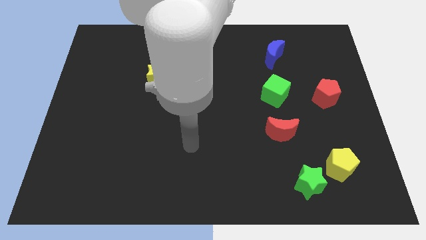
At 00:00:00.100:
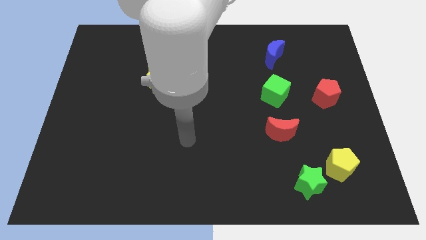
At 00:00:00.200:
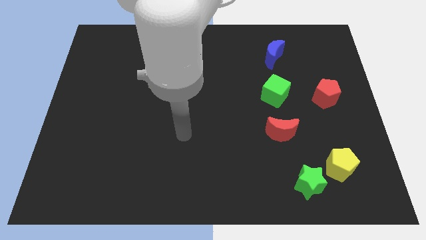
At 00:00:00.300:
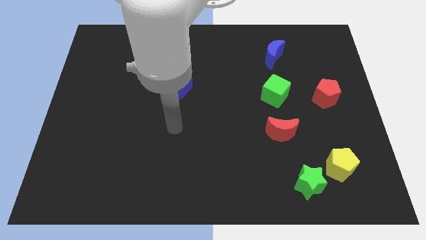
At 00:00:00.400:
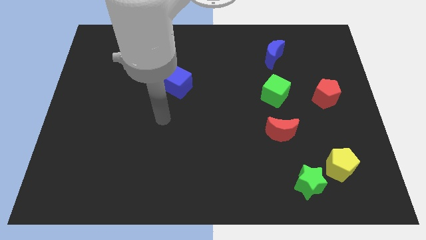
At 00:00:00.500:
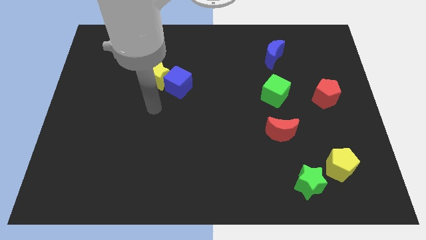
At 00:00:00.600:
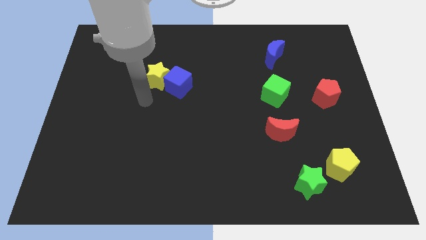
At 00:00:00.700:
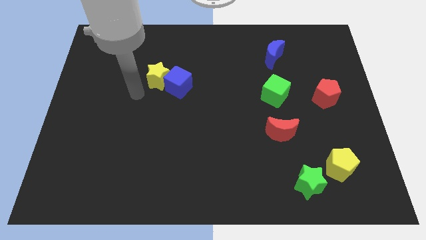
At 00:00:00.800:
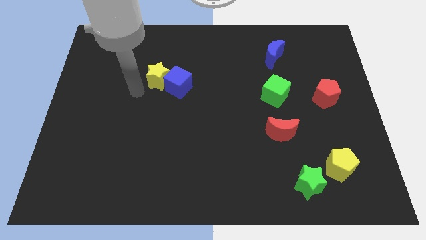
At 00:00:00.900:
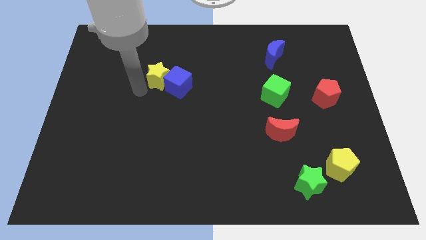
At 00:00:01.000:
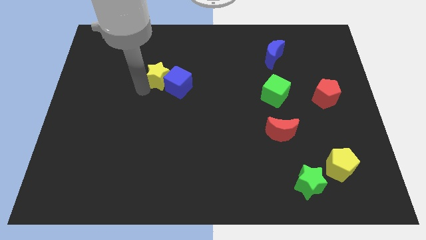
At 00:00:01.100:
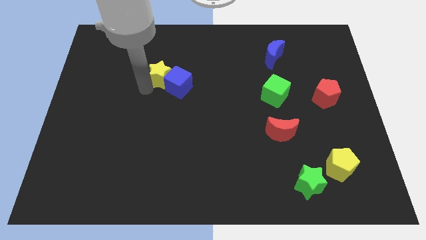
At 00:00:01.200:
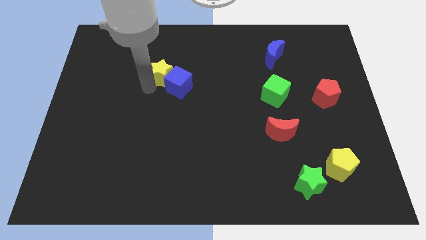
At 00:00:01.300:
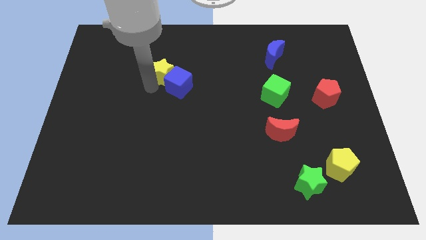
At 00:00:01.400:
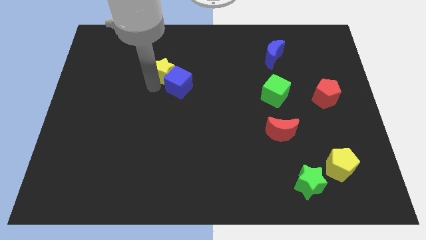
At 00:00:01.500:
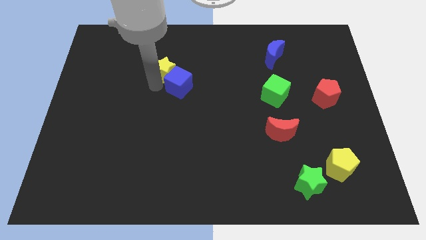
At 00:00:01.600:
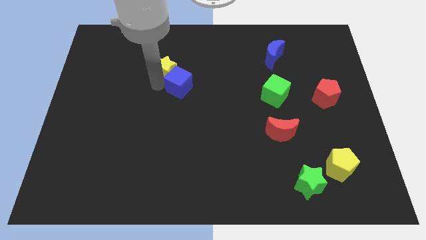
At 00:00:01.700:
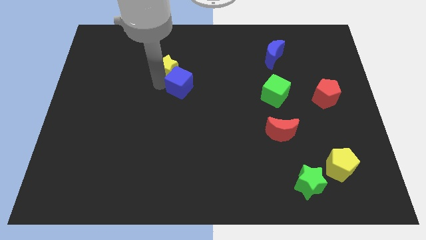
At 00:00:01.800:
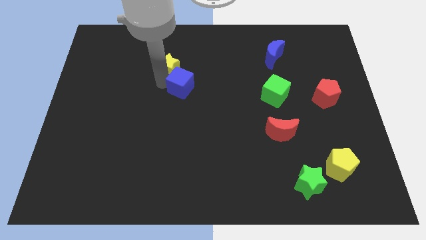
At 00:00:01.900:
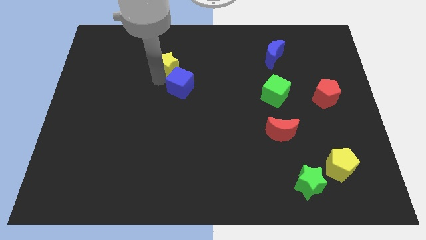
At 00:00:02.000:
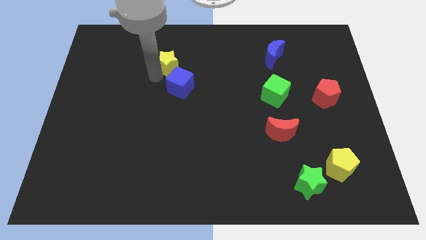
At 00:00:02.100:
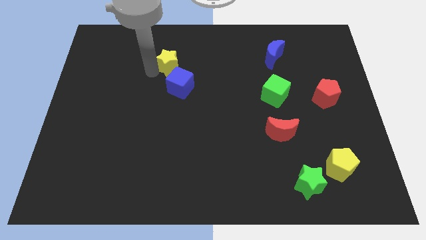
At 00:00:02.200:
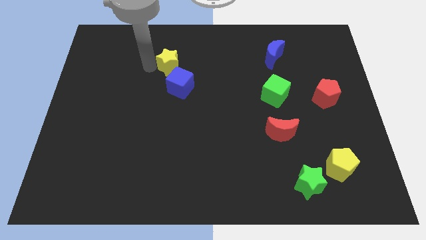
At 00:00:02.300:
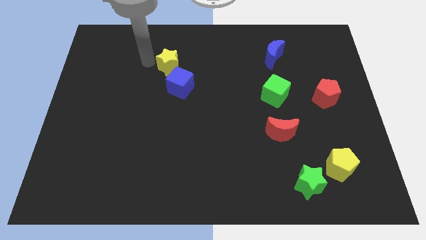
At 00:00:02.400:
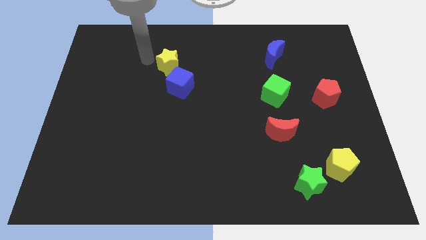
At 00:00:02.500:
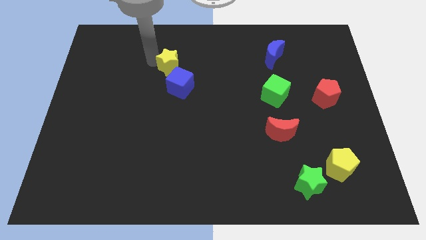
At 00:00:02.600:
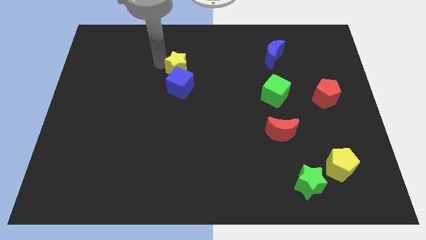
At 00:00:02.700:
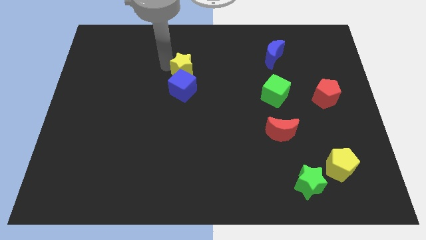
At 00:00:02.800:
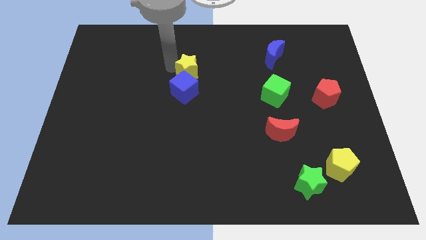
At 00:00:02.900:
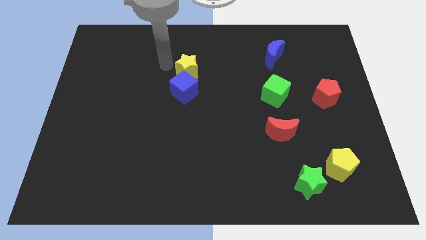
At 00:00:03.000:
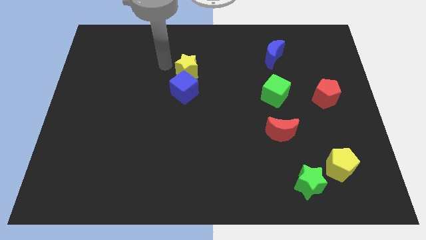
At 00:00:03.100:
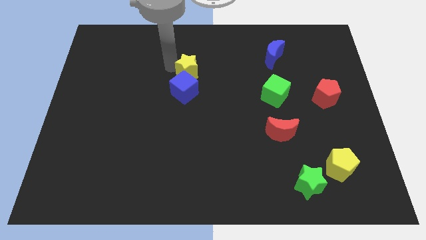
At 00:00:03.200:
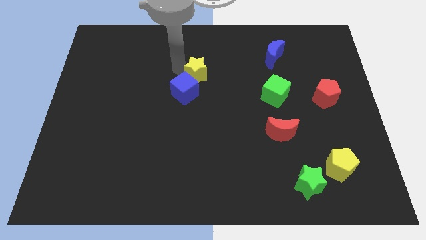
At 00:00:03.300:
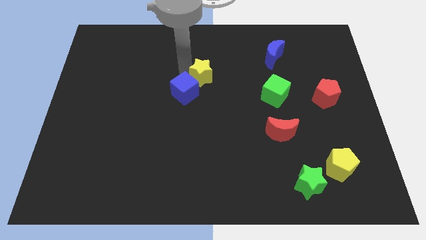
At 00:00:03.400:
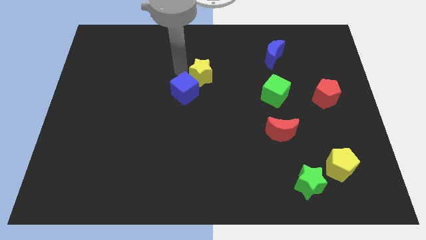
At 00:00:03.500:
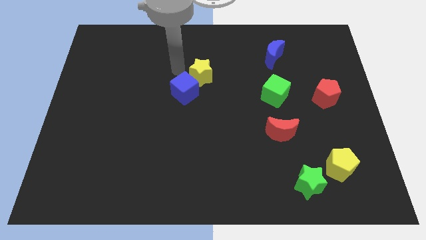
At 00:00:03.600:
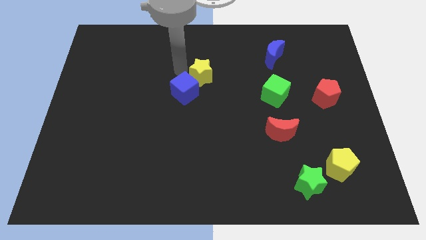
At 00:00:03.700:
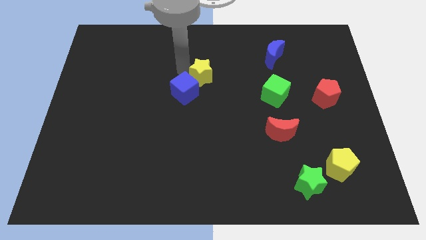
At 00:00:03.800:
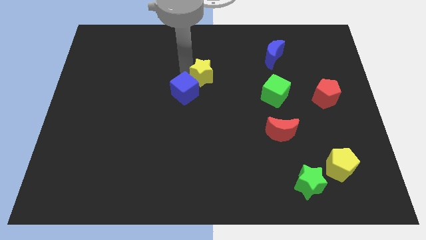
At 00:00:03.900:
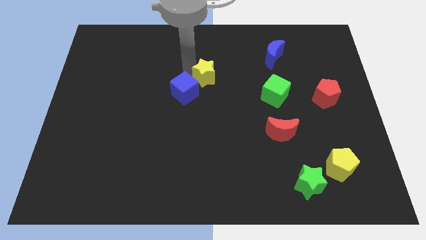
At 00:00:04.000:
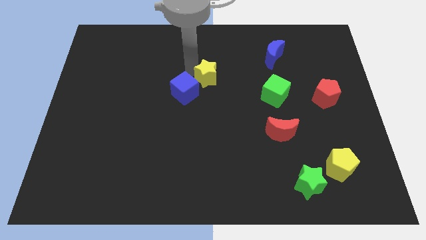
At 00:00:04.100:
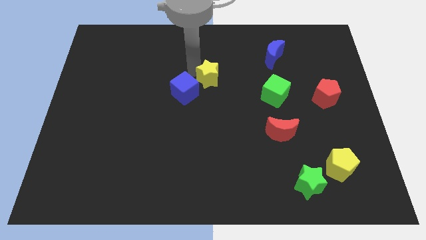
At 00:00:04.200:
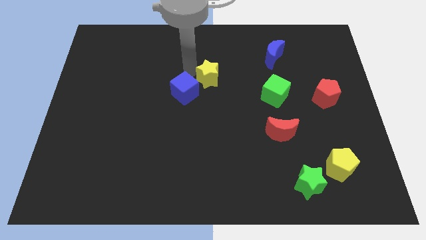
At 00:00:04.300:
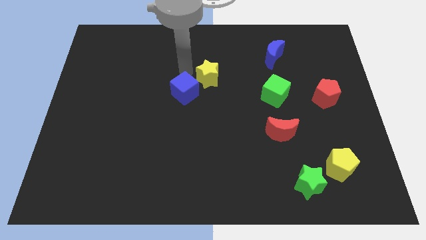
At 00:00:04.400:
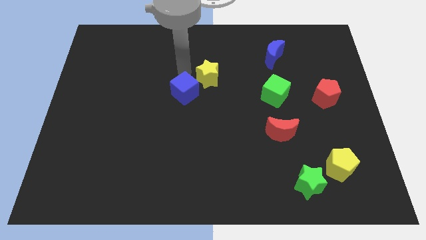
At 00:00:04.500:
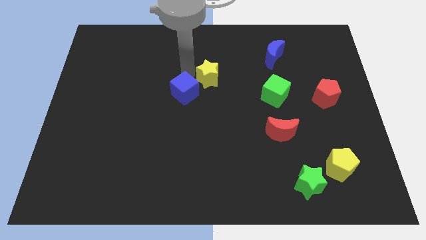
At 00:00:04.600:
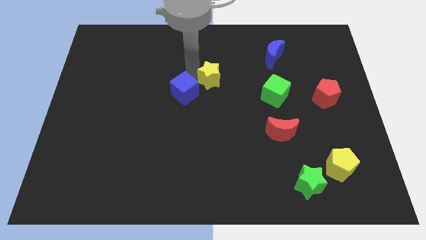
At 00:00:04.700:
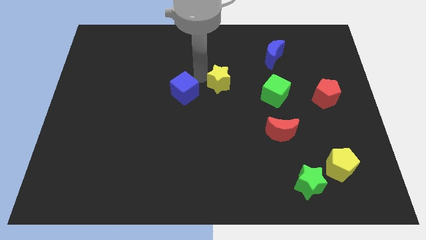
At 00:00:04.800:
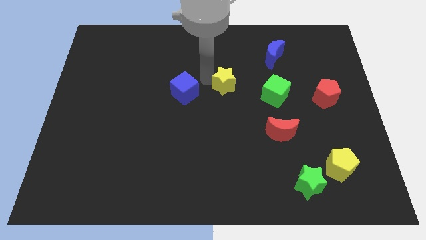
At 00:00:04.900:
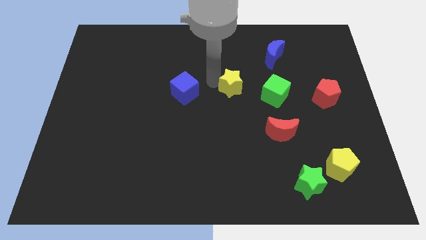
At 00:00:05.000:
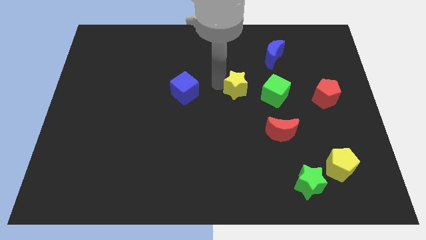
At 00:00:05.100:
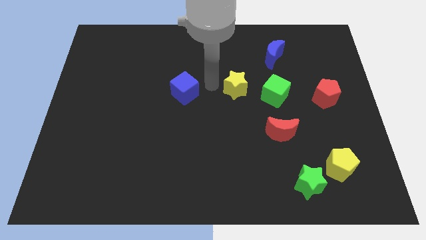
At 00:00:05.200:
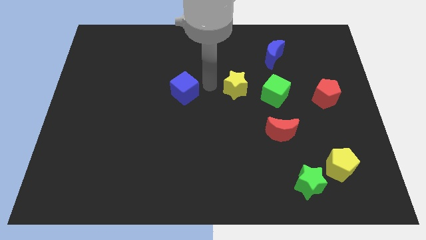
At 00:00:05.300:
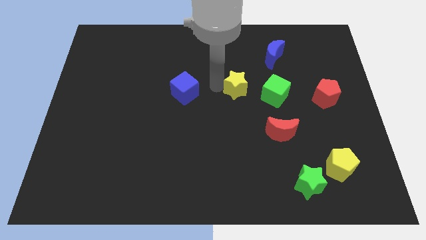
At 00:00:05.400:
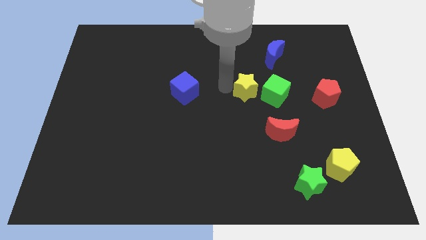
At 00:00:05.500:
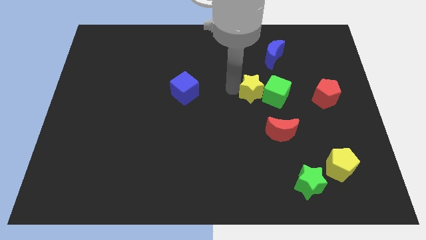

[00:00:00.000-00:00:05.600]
slide the yellow star towards the green cube

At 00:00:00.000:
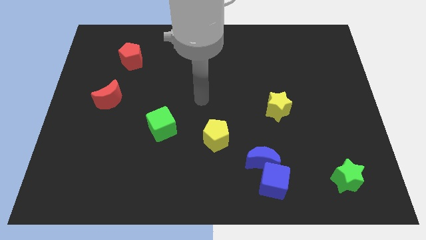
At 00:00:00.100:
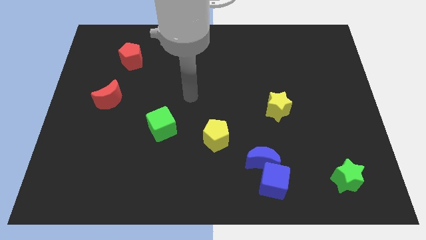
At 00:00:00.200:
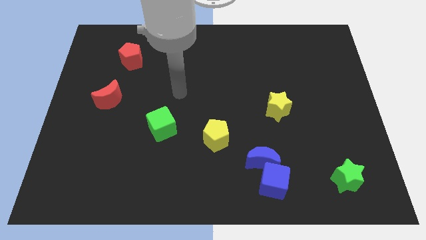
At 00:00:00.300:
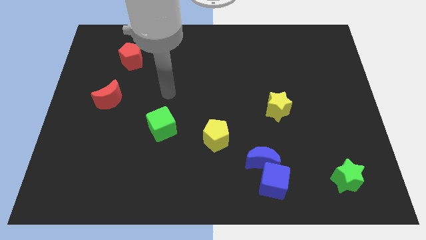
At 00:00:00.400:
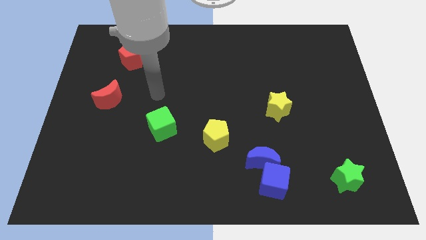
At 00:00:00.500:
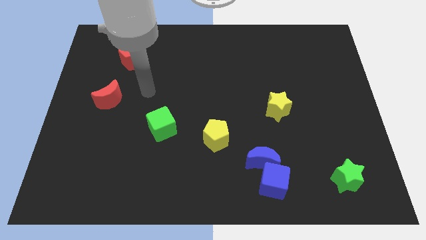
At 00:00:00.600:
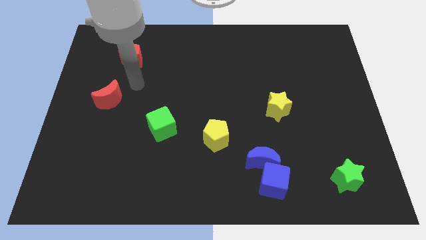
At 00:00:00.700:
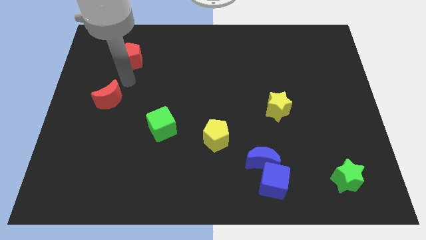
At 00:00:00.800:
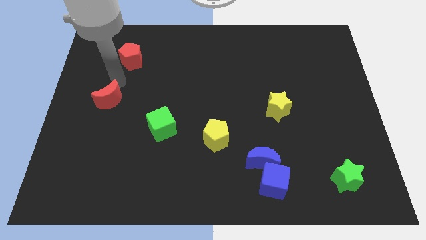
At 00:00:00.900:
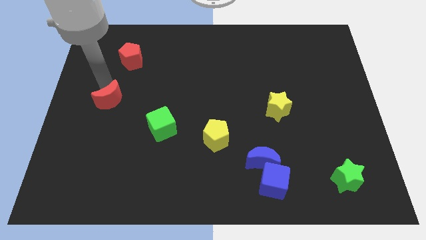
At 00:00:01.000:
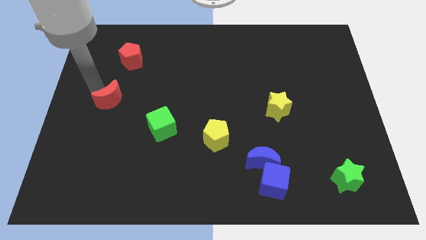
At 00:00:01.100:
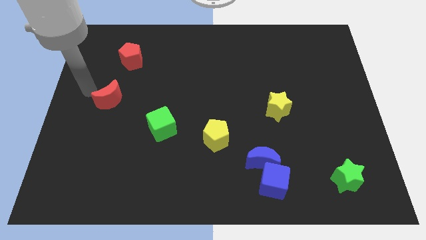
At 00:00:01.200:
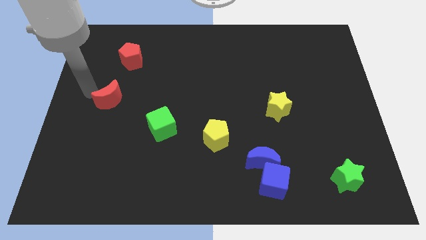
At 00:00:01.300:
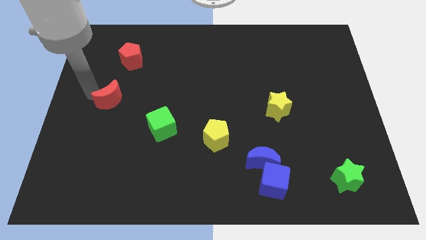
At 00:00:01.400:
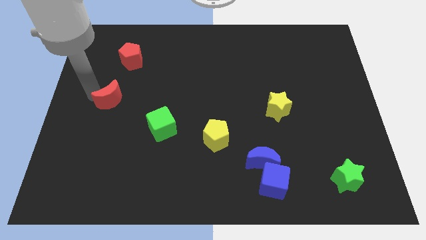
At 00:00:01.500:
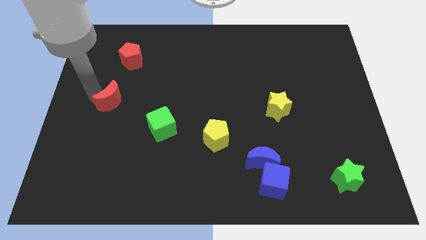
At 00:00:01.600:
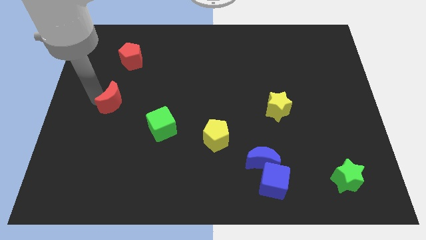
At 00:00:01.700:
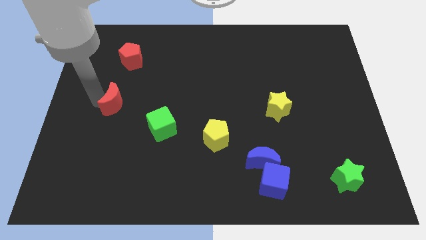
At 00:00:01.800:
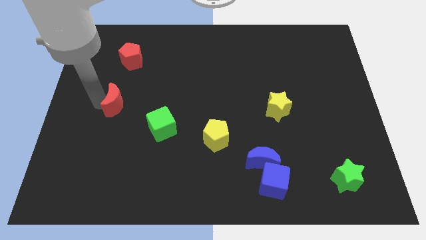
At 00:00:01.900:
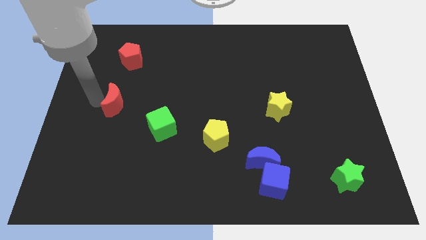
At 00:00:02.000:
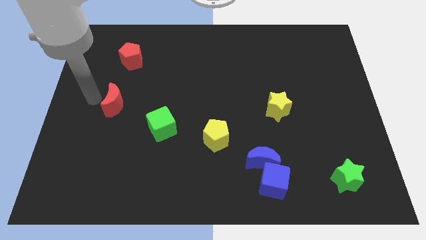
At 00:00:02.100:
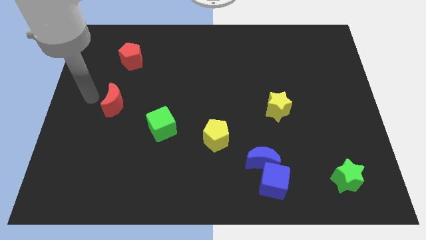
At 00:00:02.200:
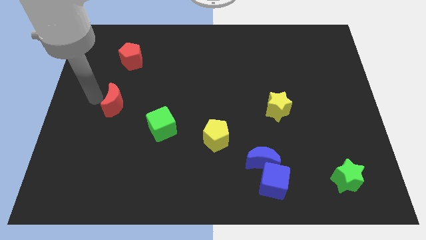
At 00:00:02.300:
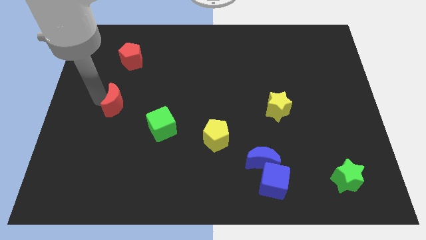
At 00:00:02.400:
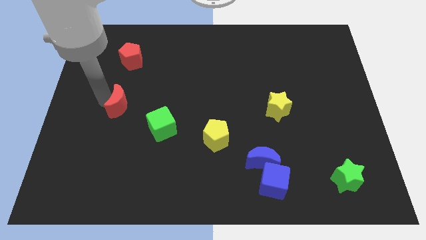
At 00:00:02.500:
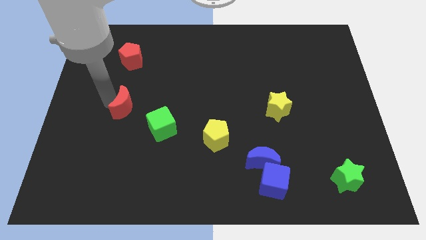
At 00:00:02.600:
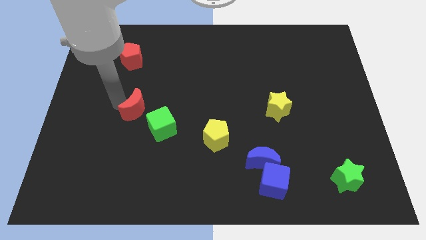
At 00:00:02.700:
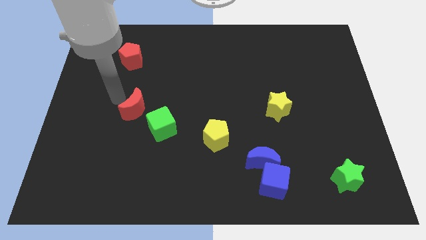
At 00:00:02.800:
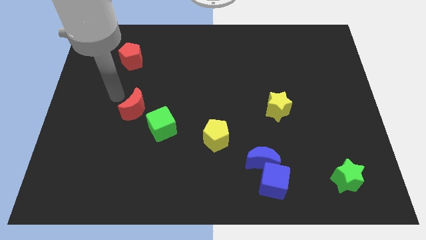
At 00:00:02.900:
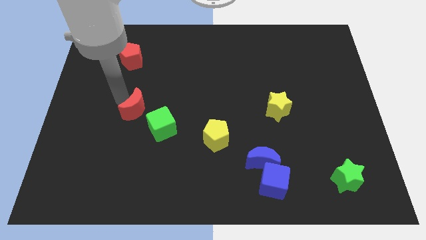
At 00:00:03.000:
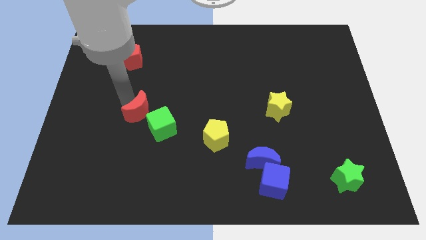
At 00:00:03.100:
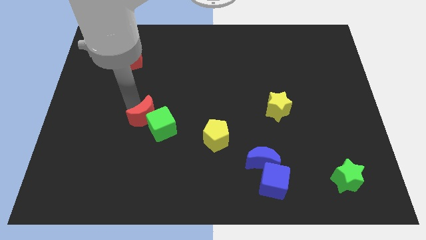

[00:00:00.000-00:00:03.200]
push the red moon to the green cube
